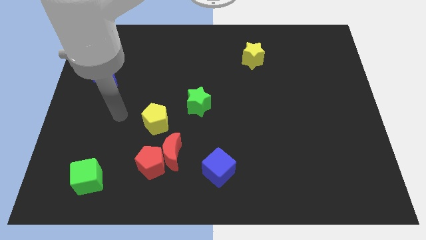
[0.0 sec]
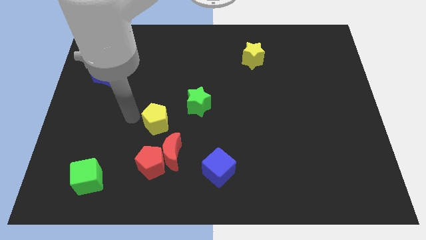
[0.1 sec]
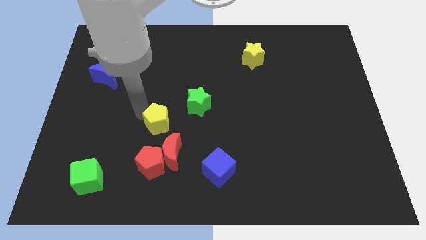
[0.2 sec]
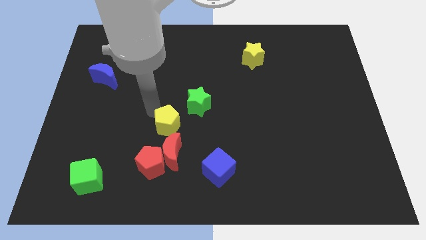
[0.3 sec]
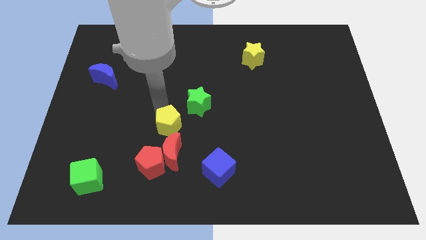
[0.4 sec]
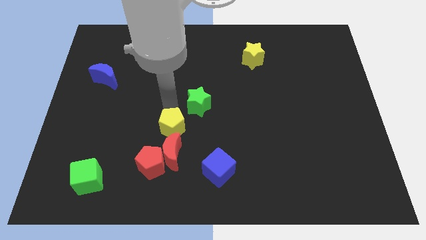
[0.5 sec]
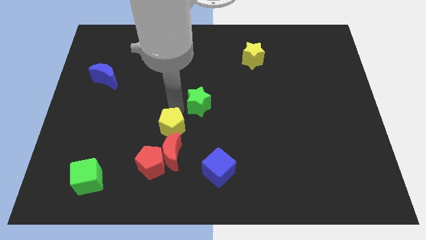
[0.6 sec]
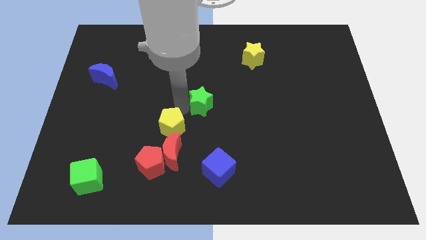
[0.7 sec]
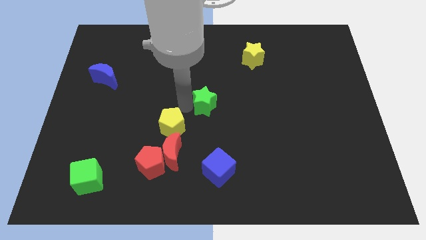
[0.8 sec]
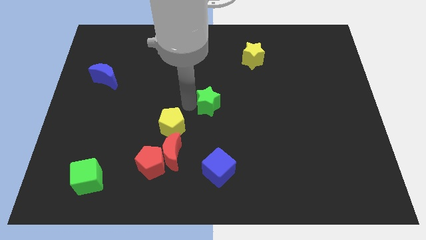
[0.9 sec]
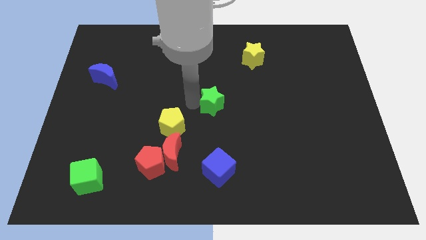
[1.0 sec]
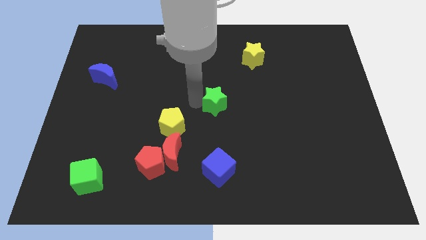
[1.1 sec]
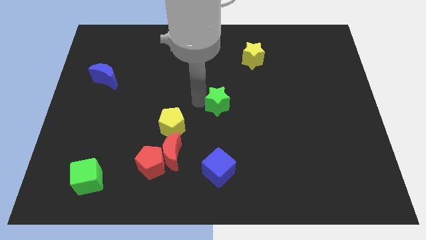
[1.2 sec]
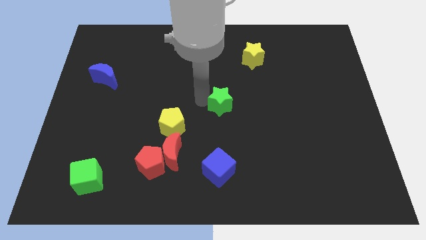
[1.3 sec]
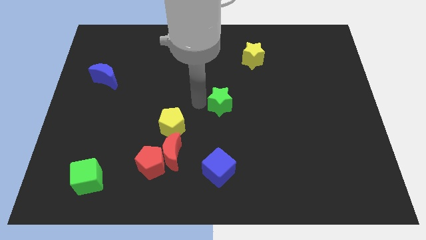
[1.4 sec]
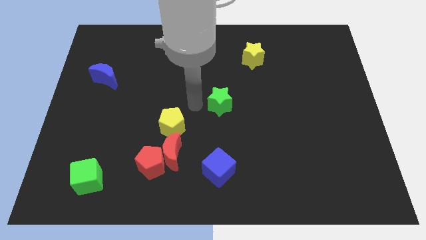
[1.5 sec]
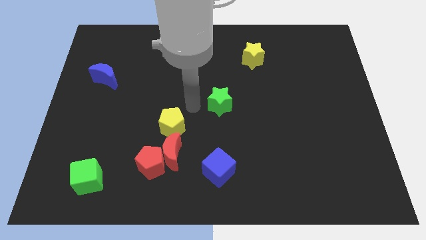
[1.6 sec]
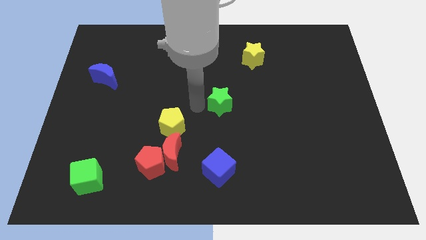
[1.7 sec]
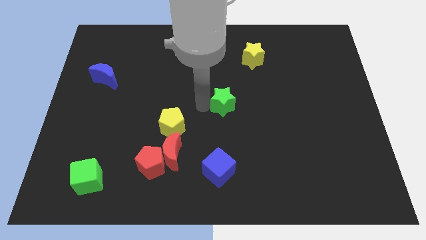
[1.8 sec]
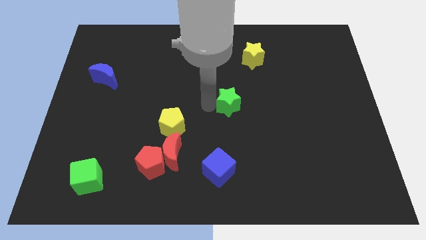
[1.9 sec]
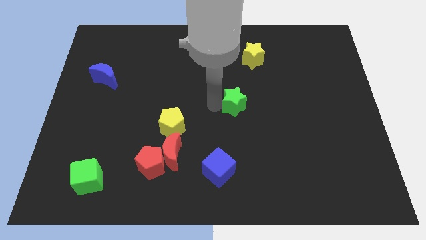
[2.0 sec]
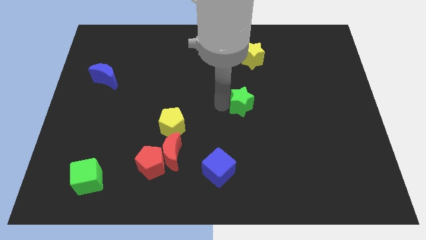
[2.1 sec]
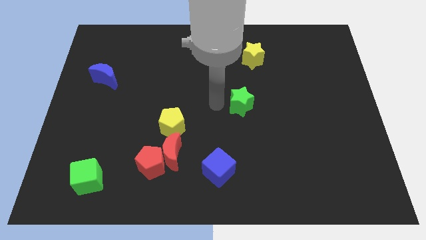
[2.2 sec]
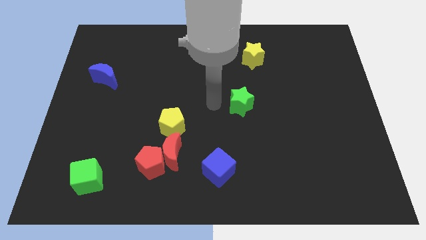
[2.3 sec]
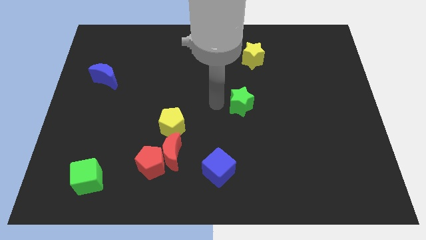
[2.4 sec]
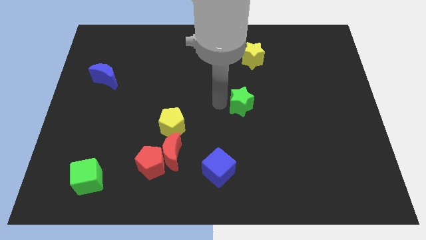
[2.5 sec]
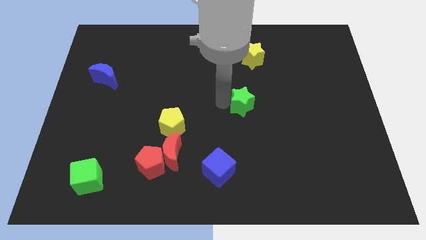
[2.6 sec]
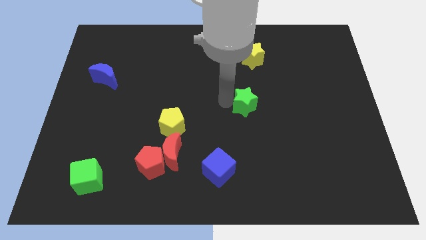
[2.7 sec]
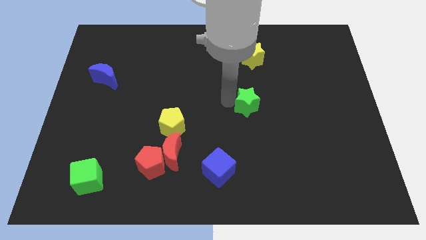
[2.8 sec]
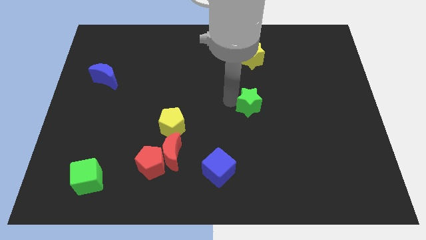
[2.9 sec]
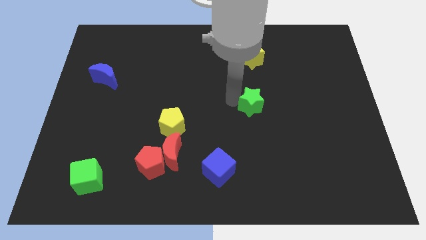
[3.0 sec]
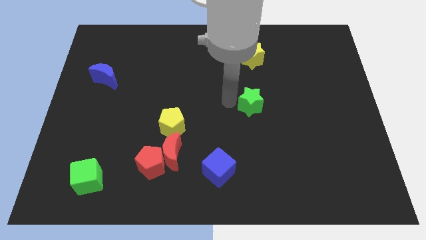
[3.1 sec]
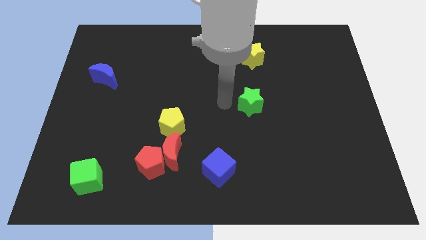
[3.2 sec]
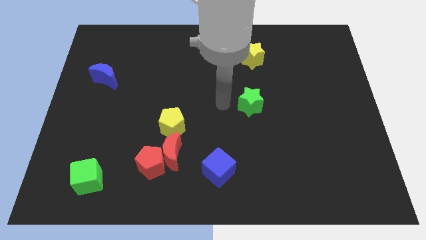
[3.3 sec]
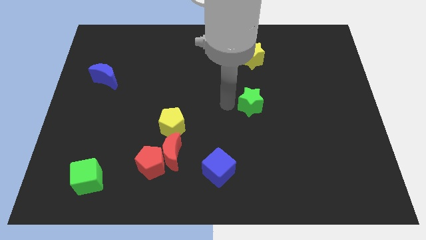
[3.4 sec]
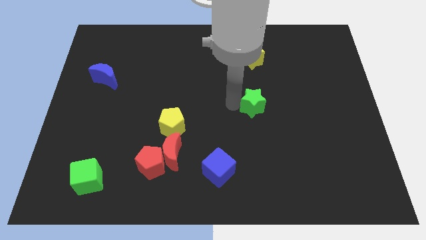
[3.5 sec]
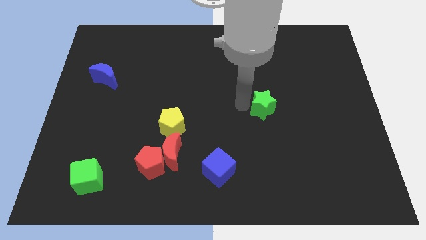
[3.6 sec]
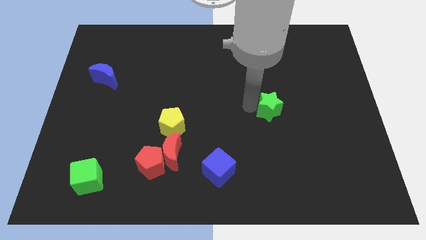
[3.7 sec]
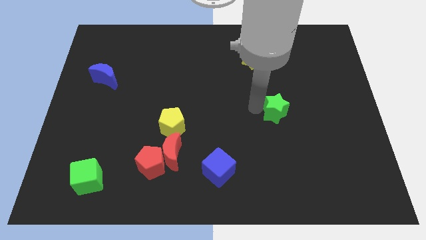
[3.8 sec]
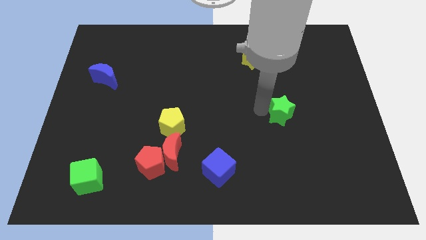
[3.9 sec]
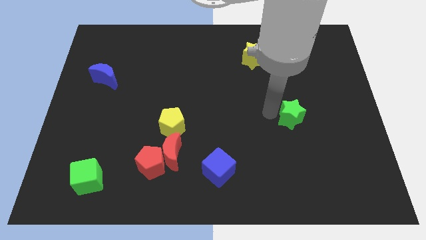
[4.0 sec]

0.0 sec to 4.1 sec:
slide the green star right

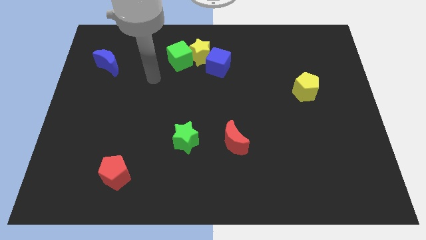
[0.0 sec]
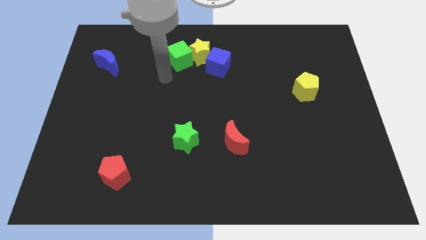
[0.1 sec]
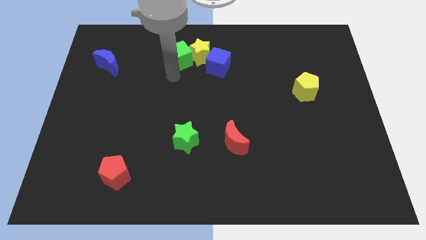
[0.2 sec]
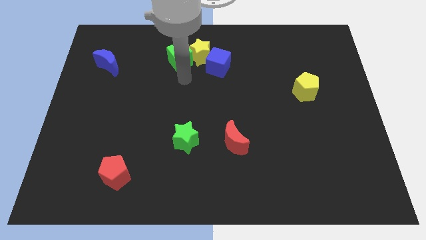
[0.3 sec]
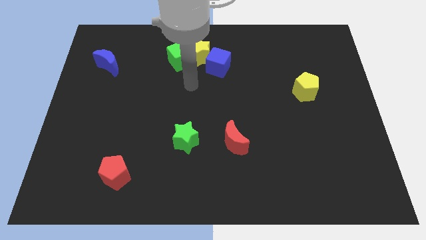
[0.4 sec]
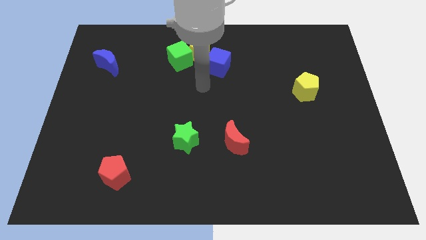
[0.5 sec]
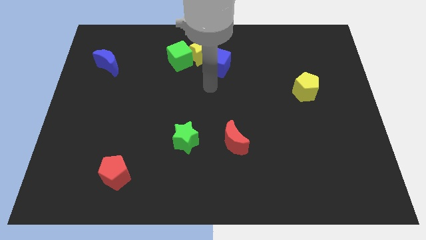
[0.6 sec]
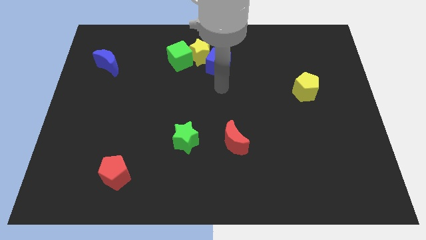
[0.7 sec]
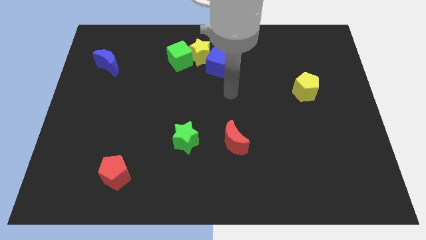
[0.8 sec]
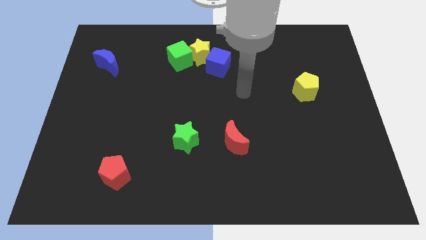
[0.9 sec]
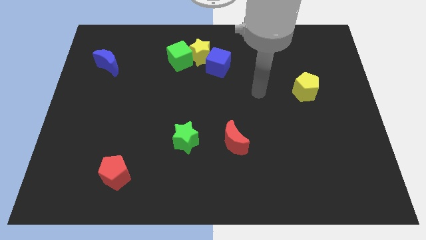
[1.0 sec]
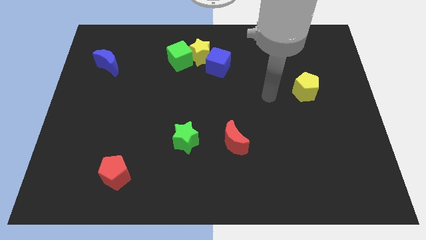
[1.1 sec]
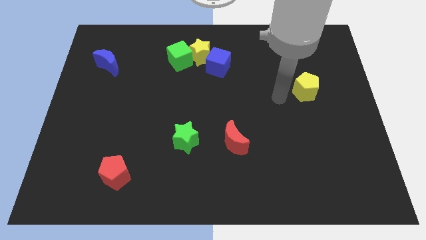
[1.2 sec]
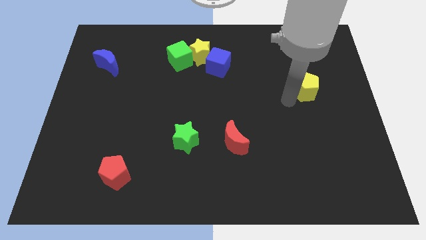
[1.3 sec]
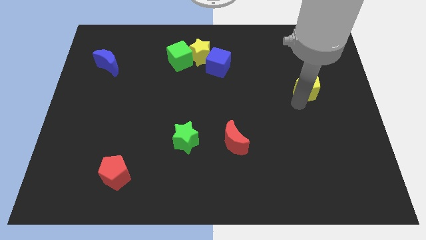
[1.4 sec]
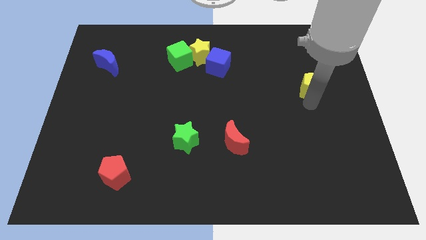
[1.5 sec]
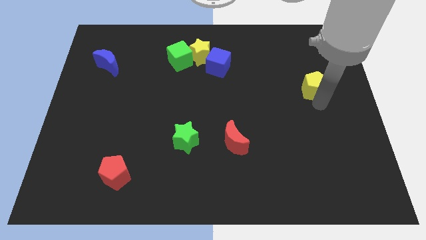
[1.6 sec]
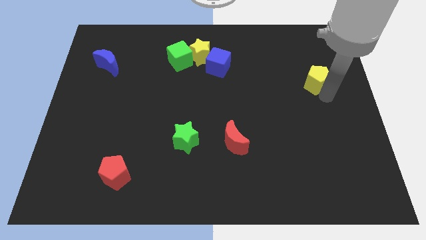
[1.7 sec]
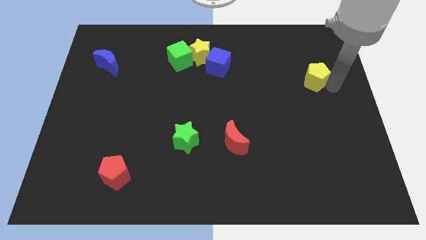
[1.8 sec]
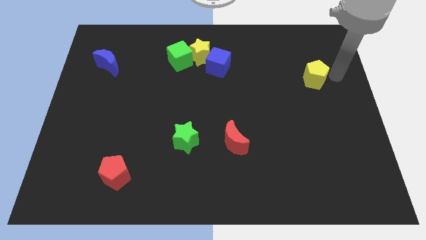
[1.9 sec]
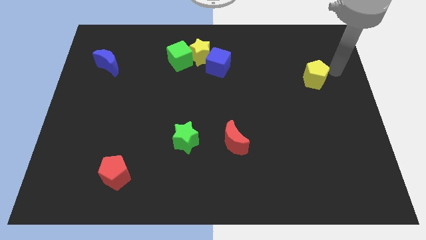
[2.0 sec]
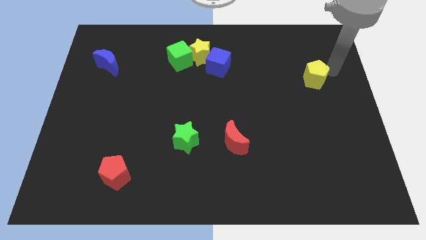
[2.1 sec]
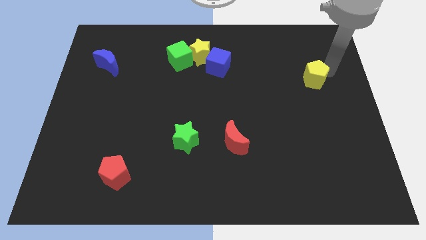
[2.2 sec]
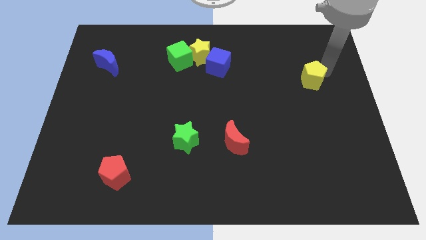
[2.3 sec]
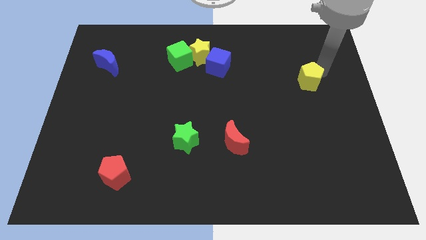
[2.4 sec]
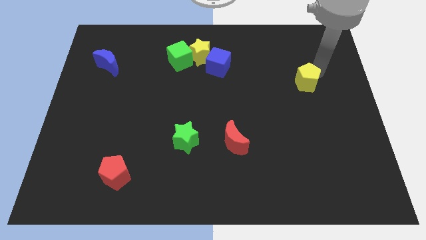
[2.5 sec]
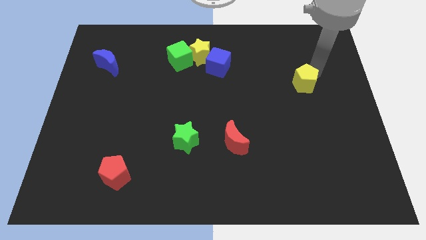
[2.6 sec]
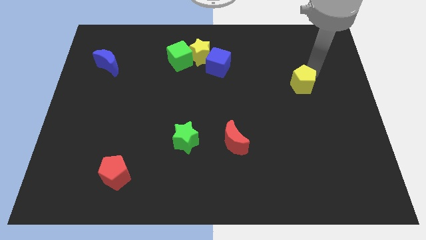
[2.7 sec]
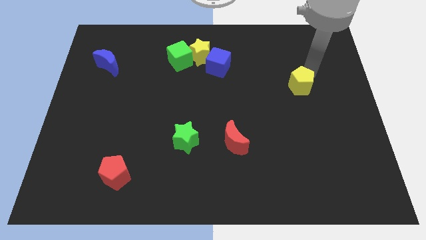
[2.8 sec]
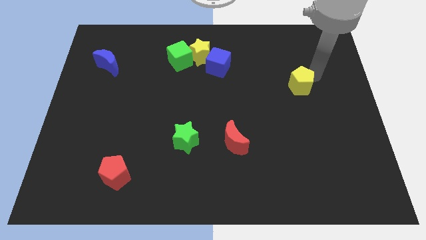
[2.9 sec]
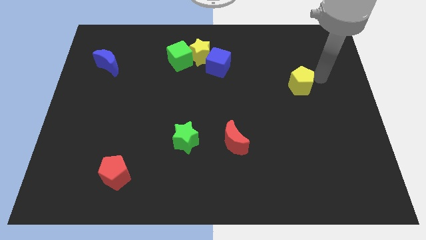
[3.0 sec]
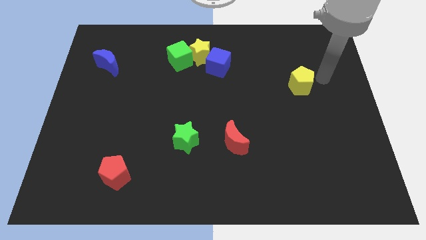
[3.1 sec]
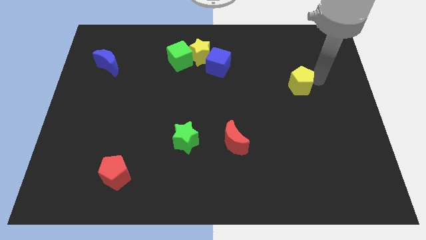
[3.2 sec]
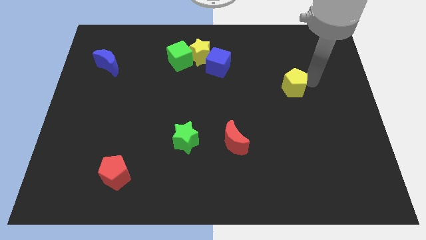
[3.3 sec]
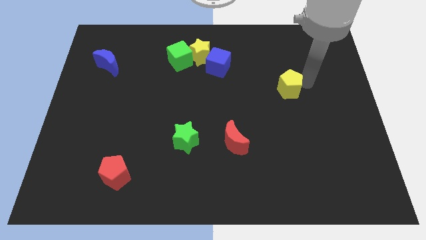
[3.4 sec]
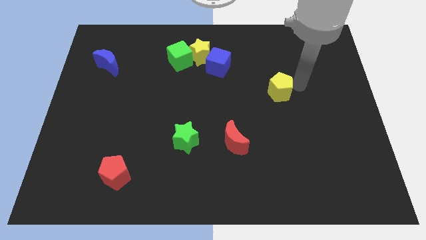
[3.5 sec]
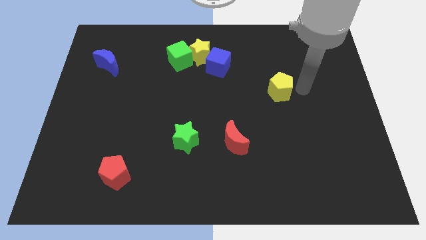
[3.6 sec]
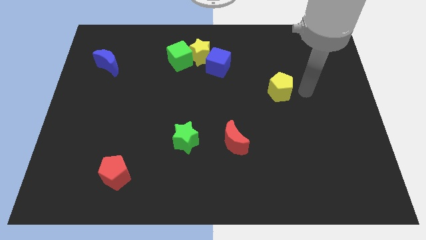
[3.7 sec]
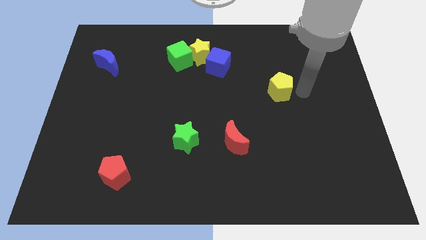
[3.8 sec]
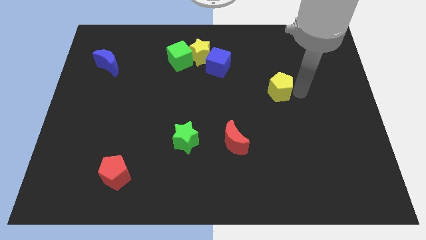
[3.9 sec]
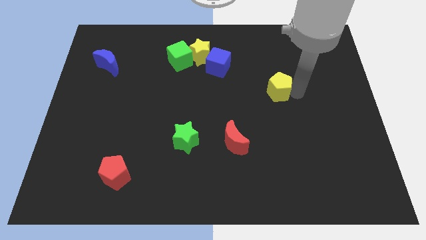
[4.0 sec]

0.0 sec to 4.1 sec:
slightly move the yellow pentagon left
